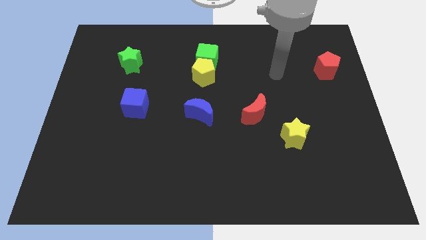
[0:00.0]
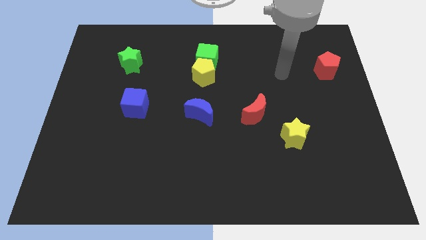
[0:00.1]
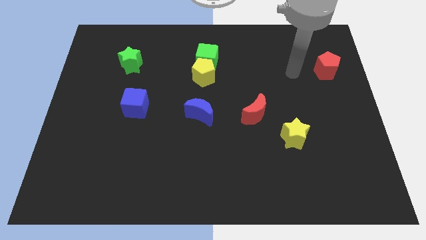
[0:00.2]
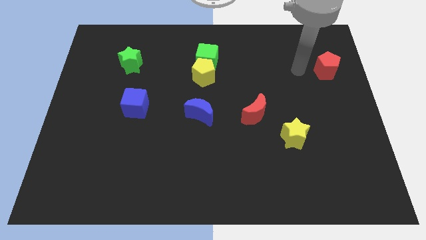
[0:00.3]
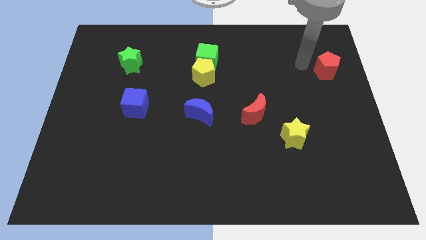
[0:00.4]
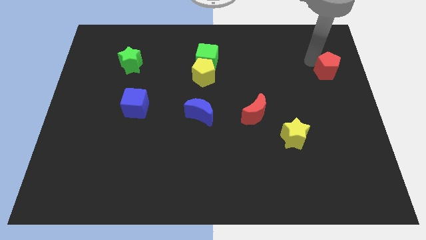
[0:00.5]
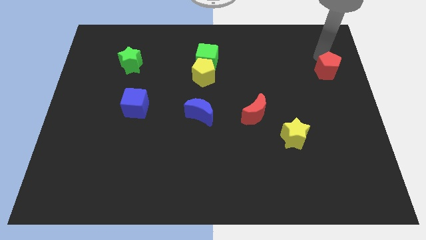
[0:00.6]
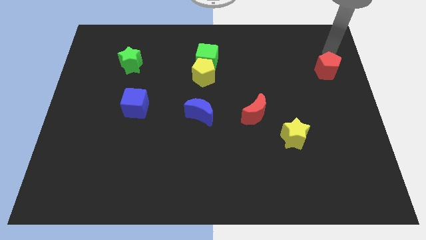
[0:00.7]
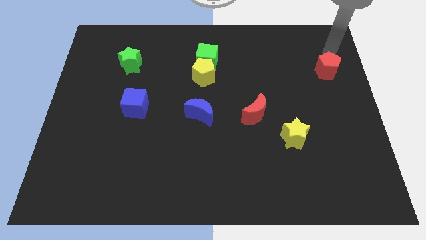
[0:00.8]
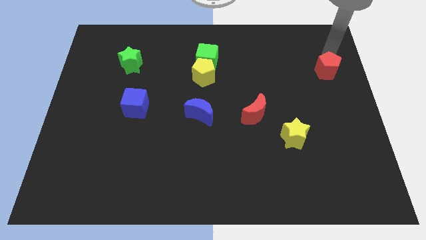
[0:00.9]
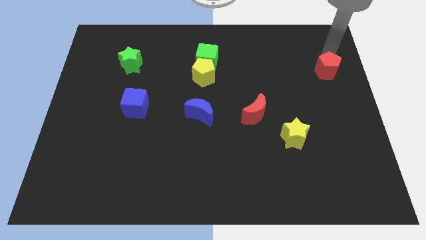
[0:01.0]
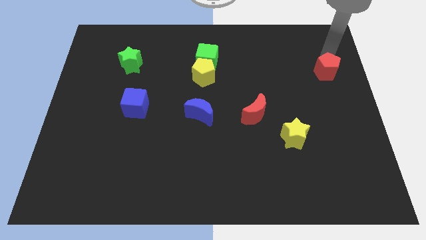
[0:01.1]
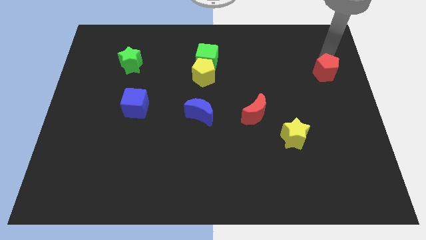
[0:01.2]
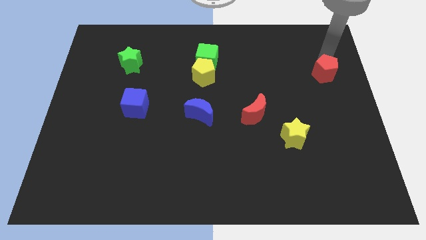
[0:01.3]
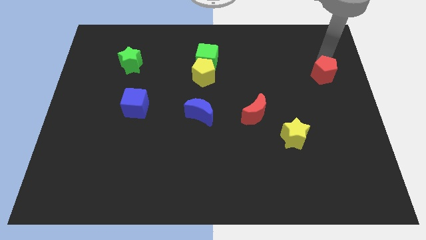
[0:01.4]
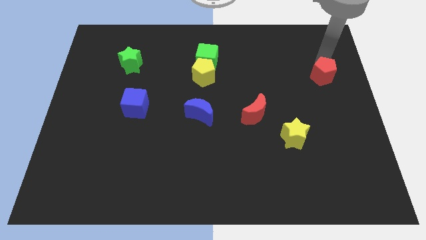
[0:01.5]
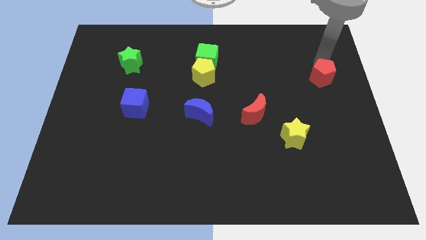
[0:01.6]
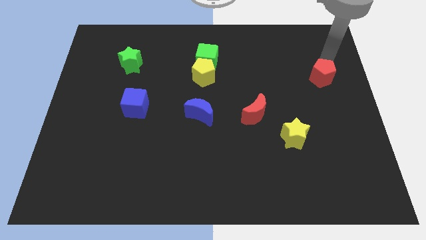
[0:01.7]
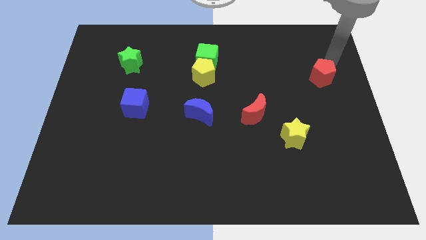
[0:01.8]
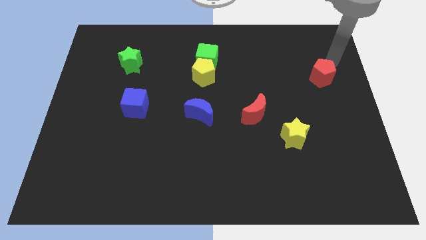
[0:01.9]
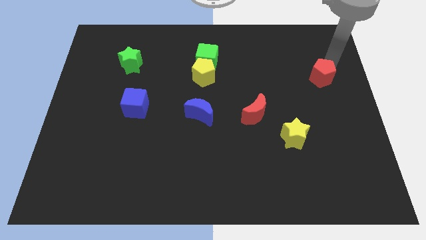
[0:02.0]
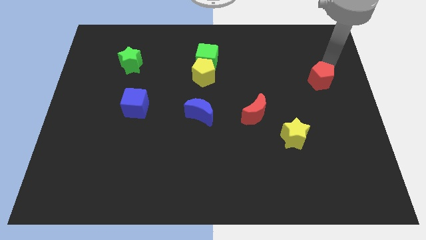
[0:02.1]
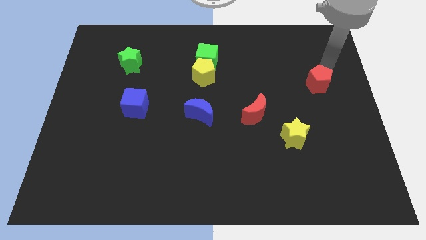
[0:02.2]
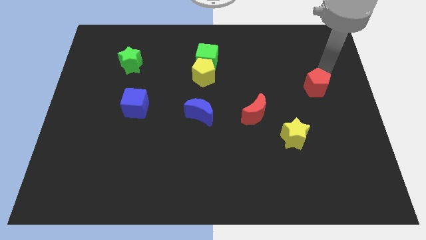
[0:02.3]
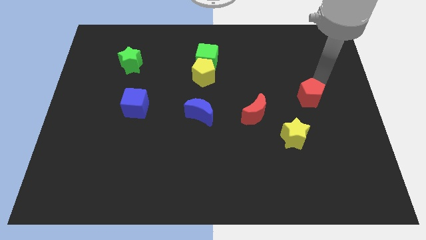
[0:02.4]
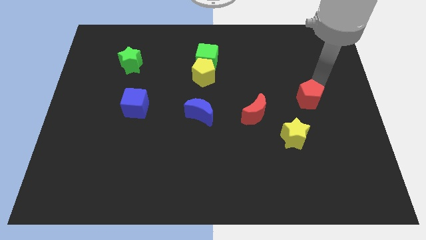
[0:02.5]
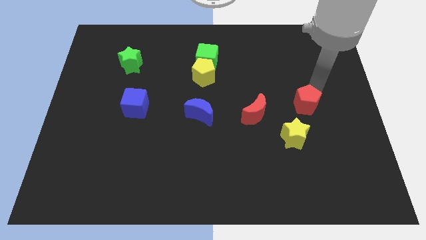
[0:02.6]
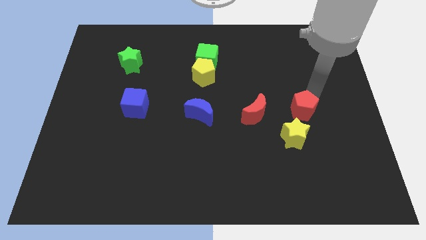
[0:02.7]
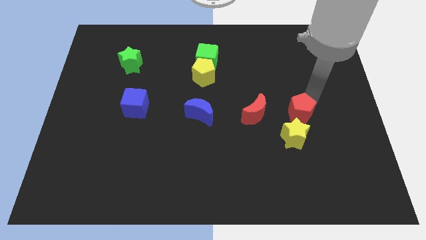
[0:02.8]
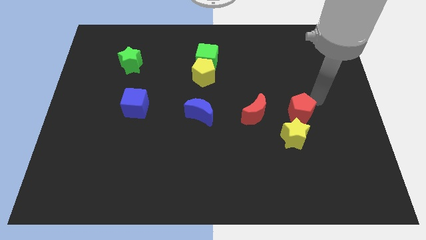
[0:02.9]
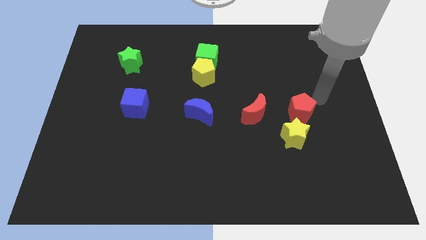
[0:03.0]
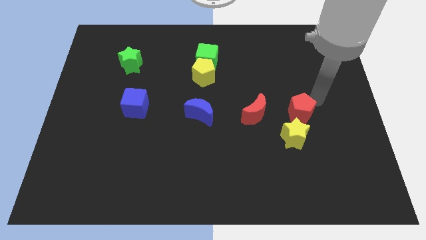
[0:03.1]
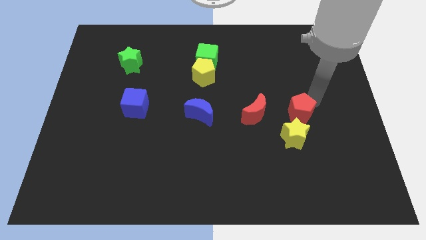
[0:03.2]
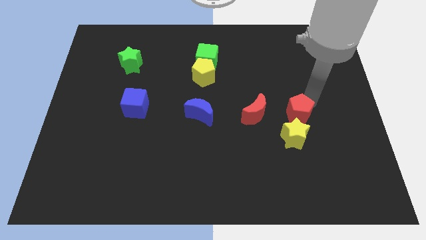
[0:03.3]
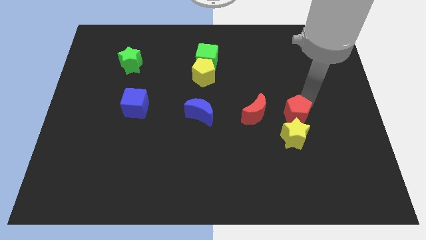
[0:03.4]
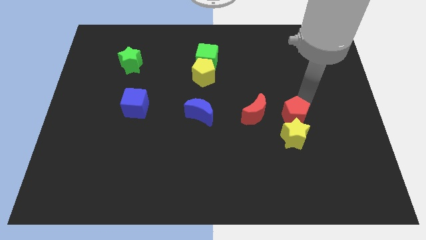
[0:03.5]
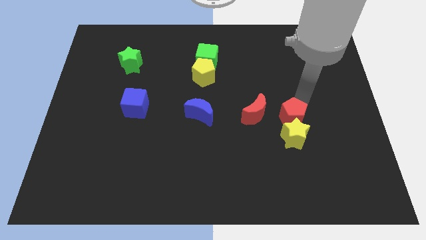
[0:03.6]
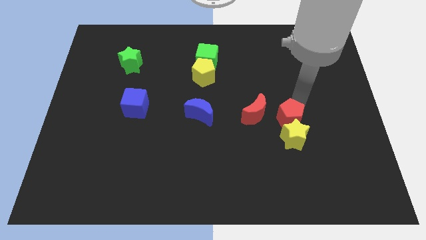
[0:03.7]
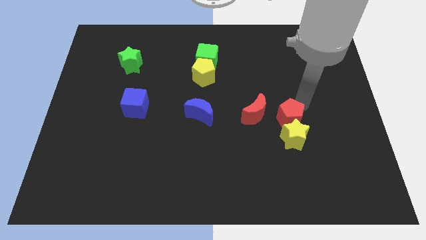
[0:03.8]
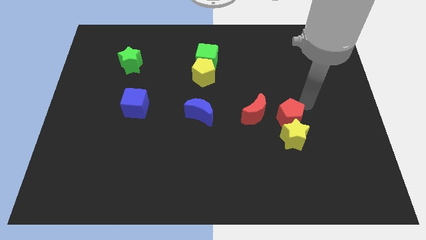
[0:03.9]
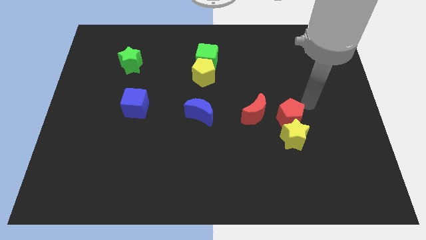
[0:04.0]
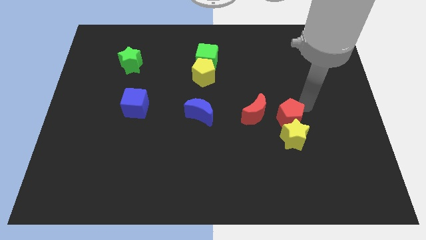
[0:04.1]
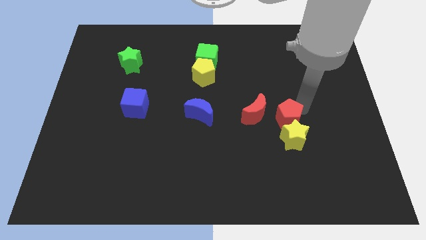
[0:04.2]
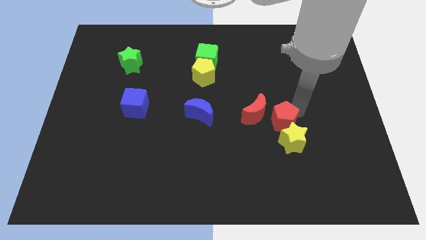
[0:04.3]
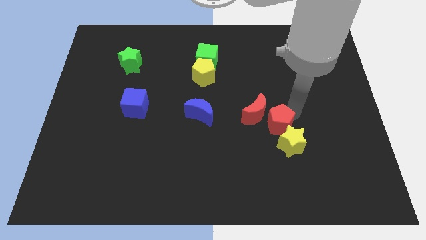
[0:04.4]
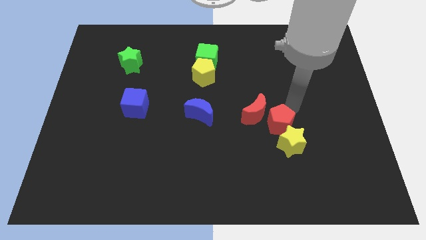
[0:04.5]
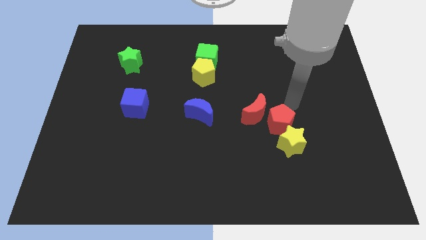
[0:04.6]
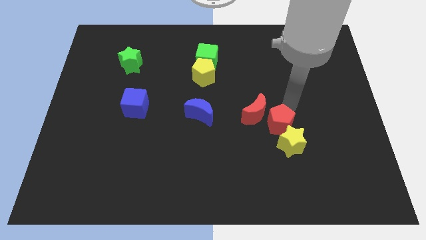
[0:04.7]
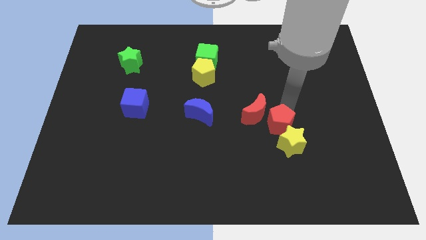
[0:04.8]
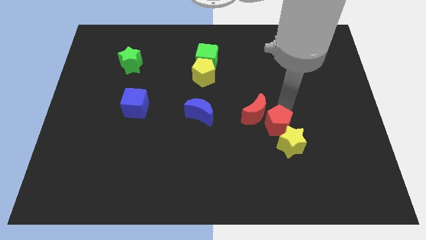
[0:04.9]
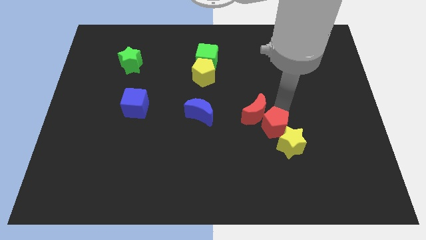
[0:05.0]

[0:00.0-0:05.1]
move the red pentagon below the red moon

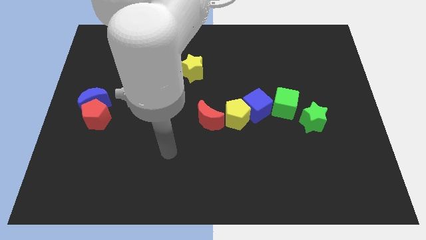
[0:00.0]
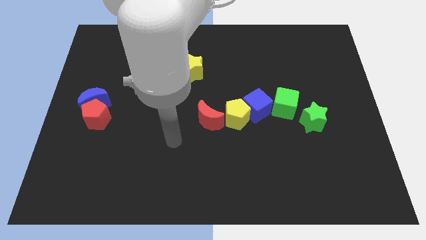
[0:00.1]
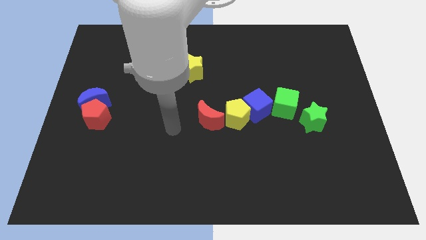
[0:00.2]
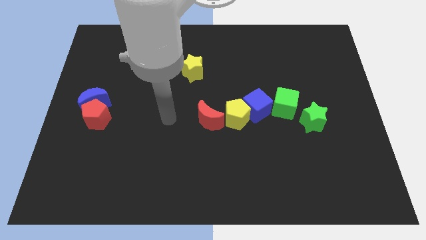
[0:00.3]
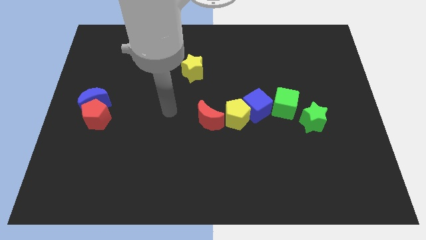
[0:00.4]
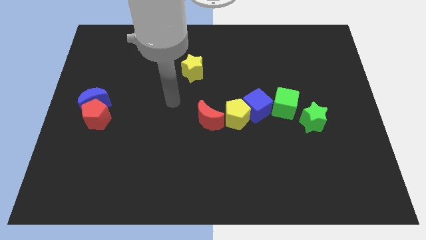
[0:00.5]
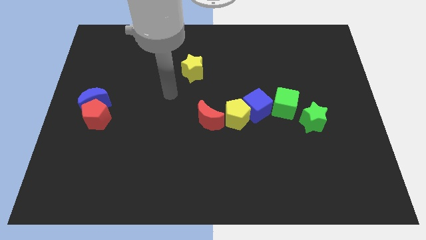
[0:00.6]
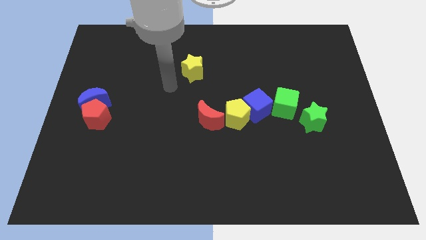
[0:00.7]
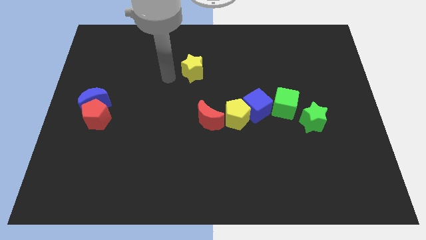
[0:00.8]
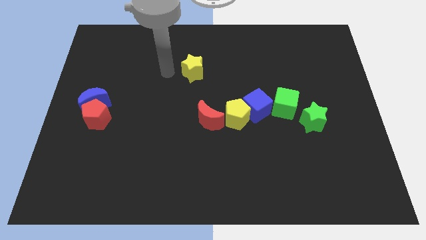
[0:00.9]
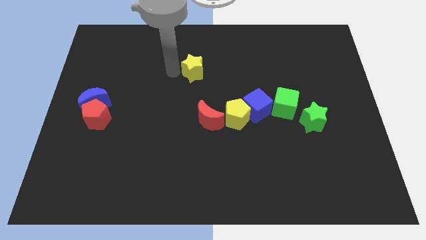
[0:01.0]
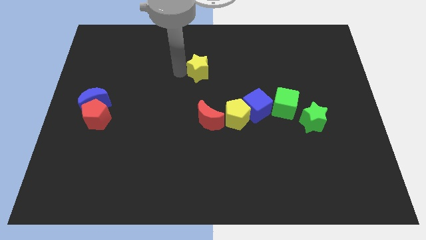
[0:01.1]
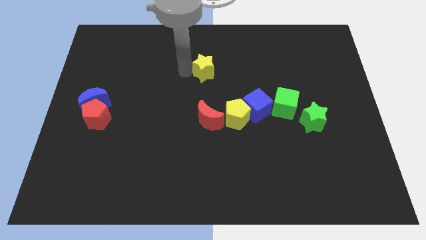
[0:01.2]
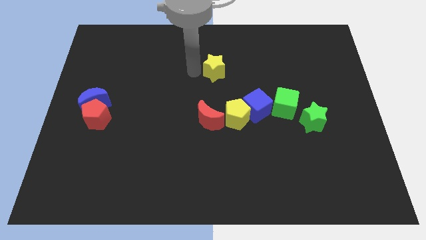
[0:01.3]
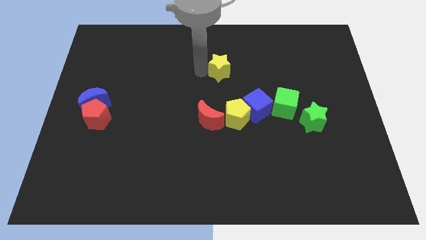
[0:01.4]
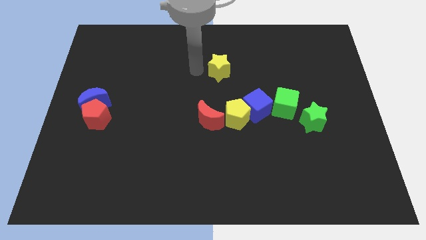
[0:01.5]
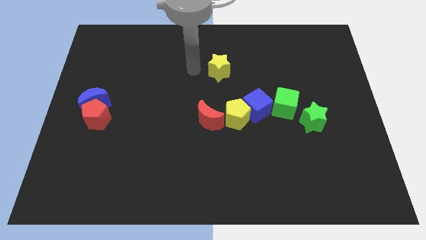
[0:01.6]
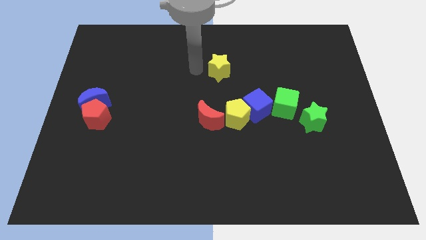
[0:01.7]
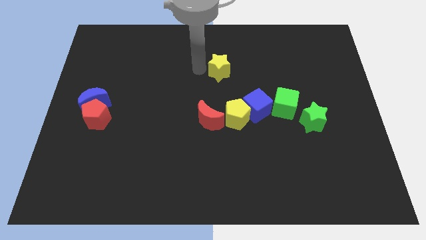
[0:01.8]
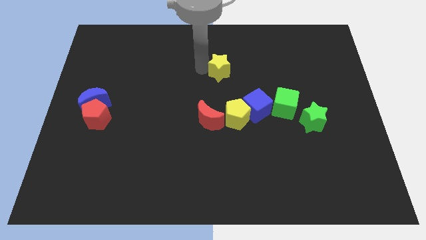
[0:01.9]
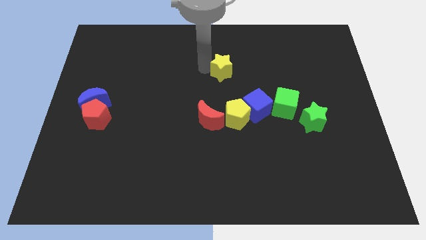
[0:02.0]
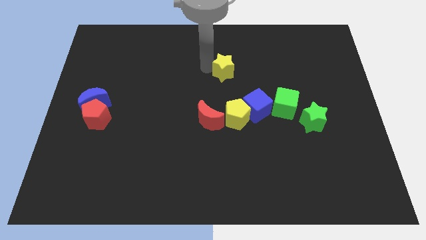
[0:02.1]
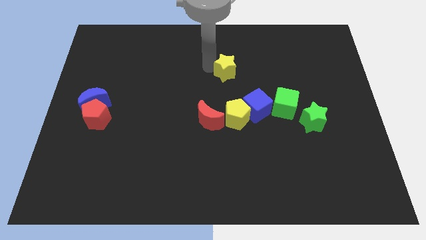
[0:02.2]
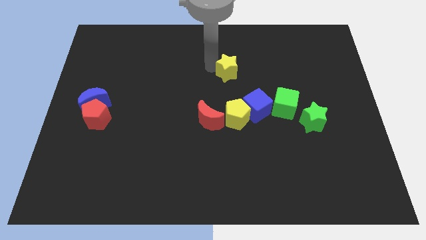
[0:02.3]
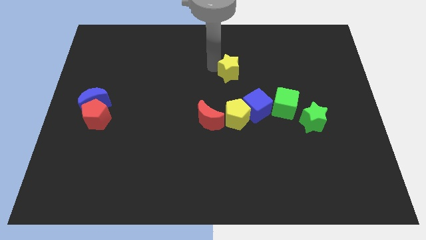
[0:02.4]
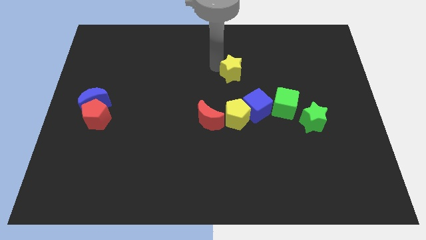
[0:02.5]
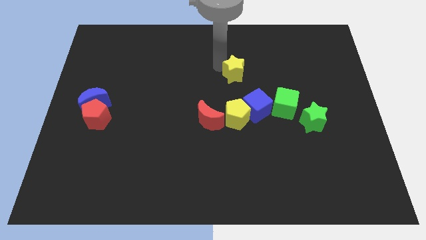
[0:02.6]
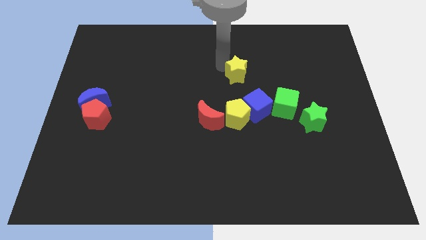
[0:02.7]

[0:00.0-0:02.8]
move the yellow star to the top of the blue cube
